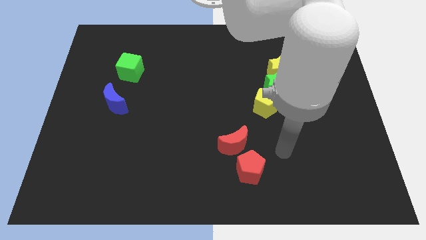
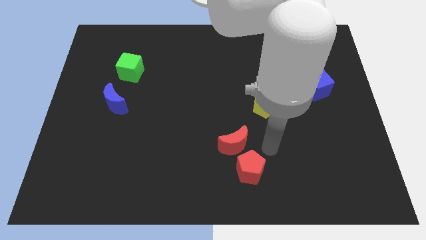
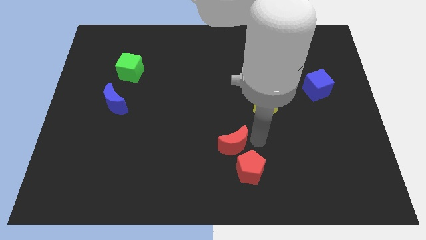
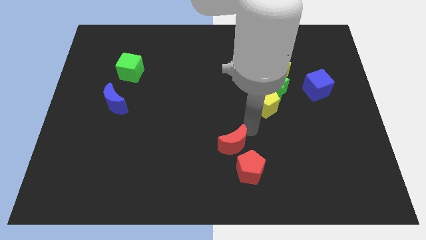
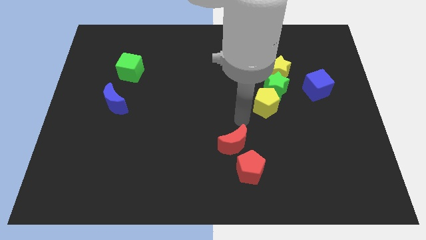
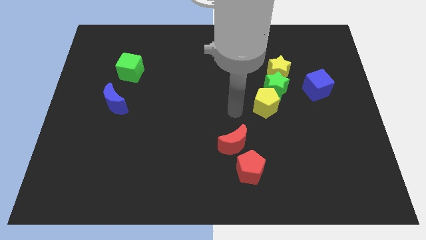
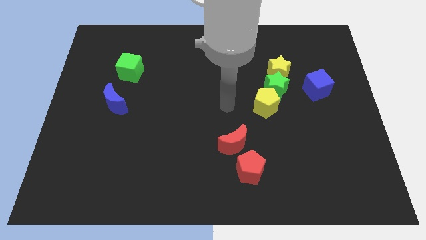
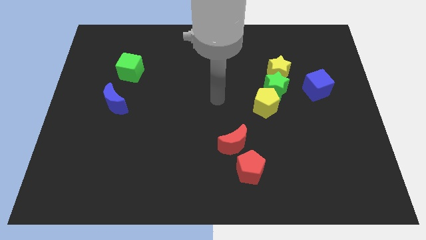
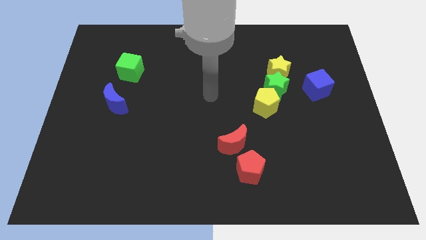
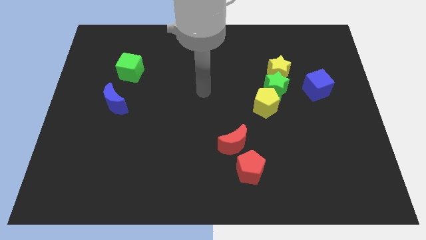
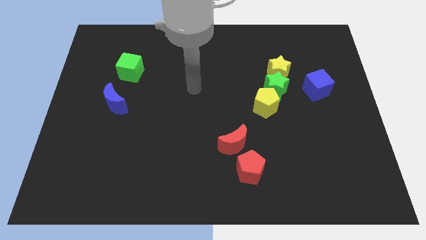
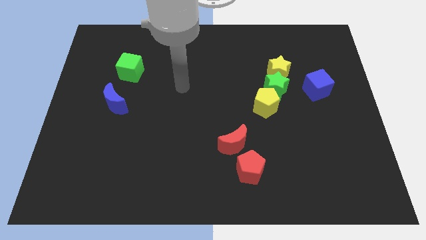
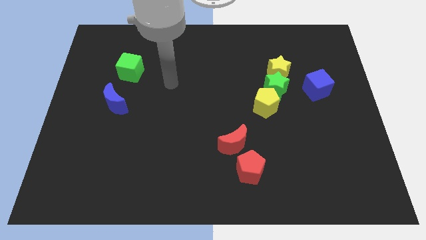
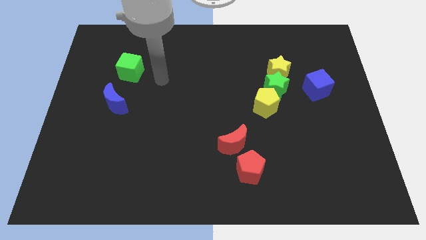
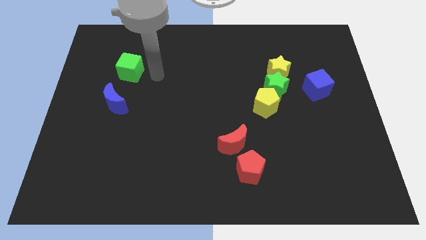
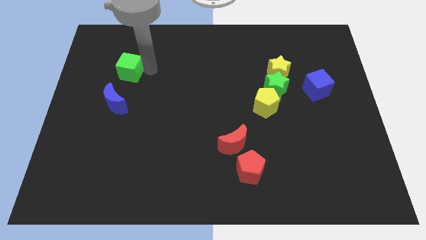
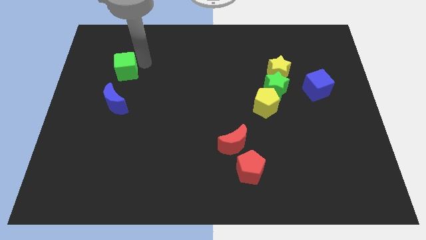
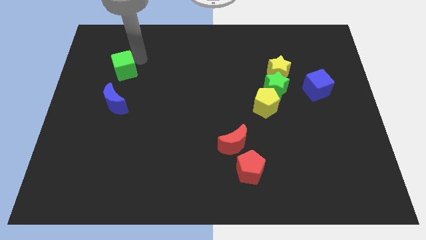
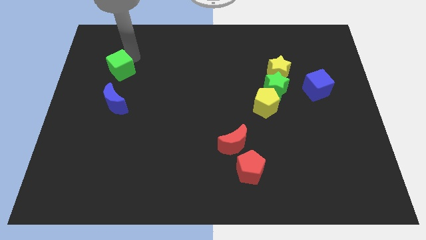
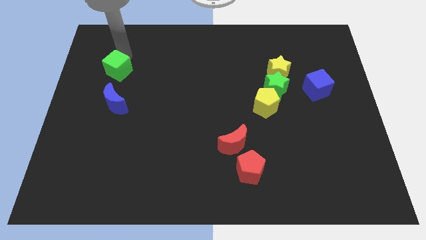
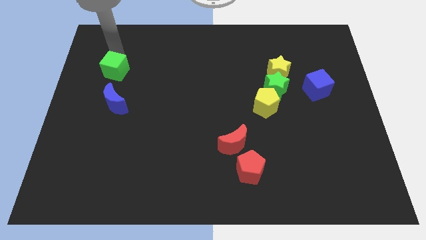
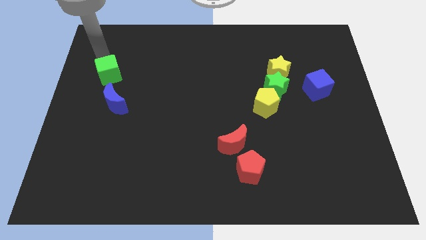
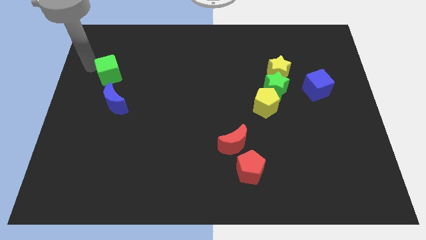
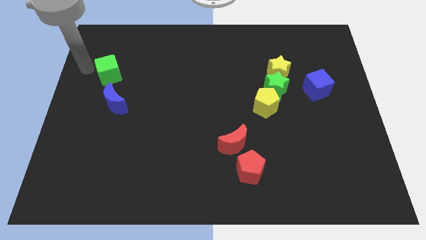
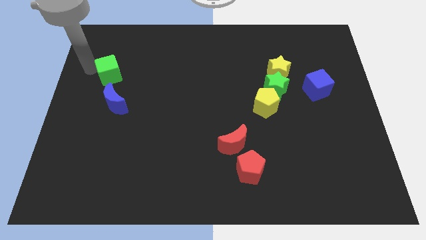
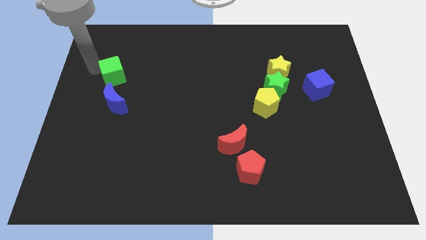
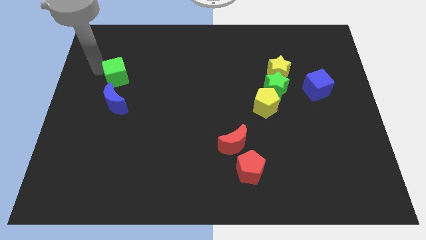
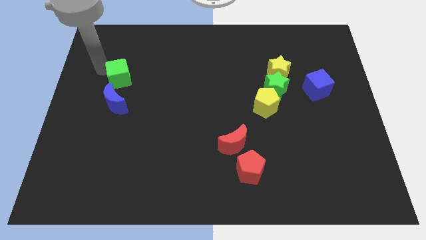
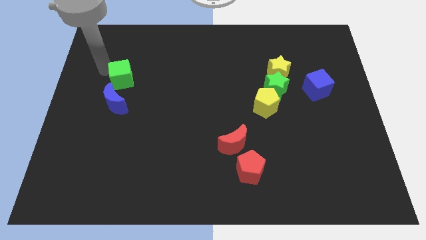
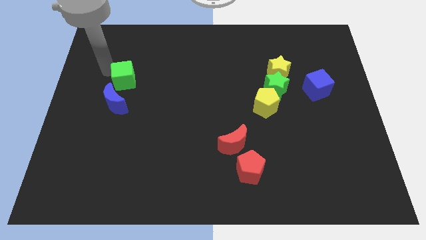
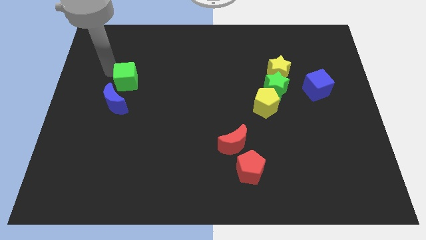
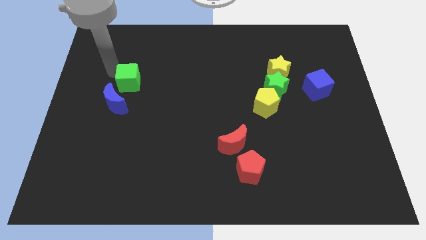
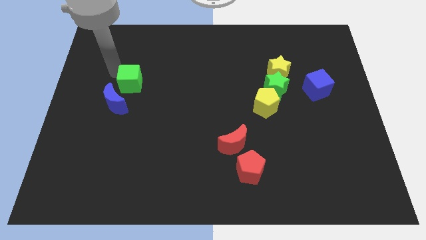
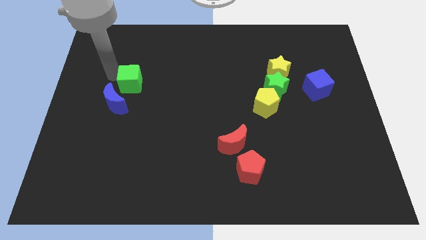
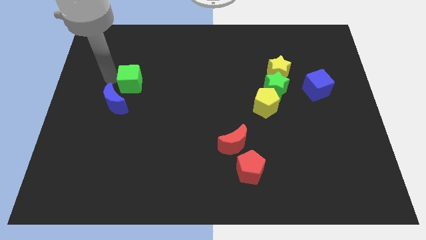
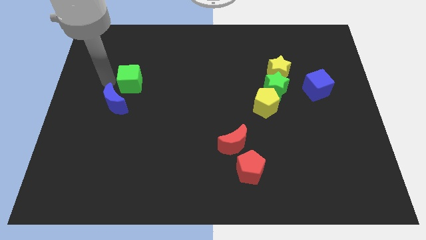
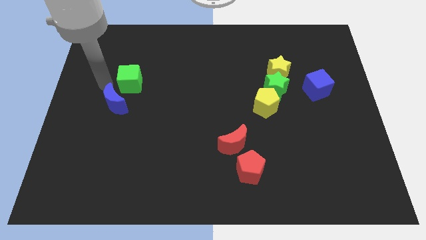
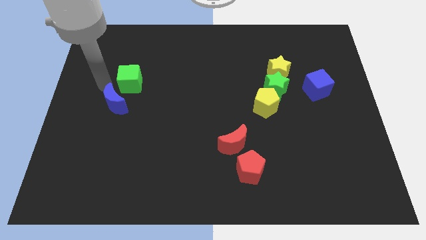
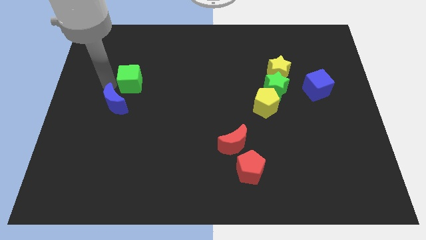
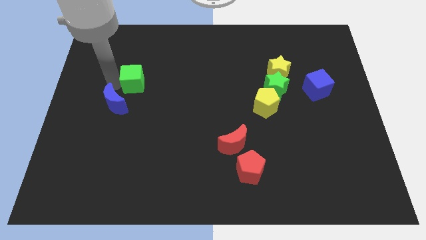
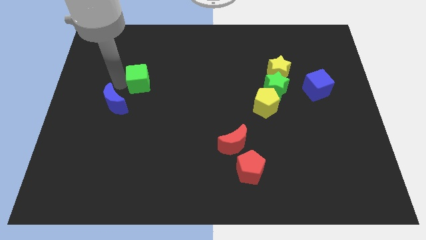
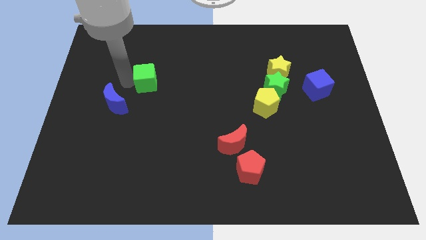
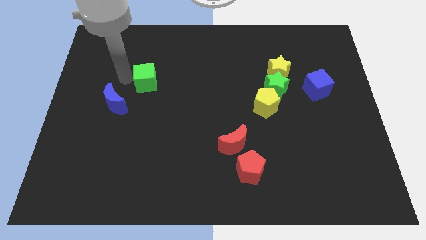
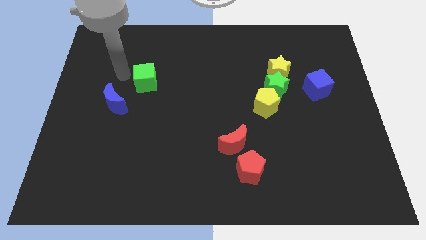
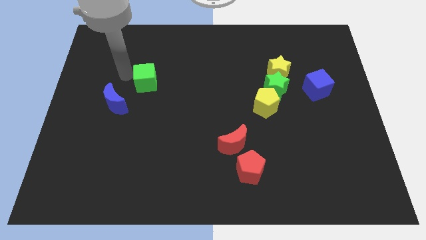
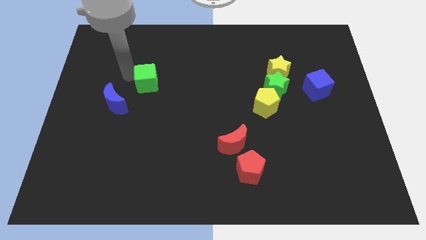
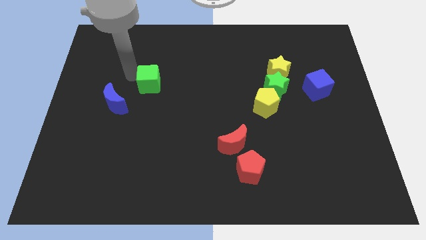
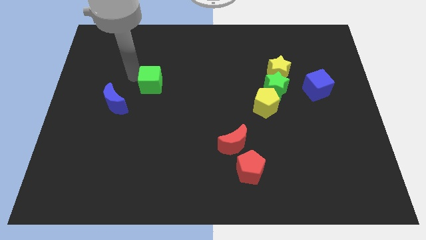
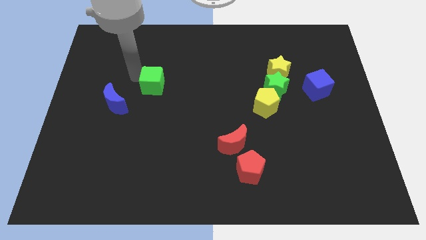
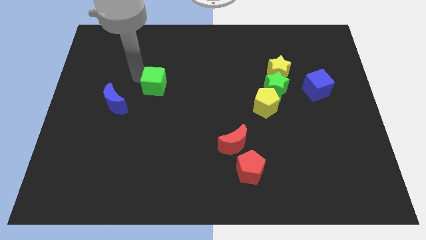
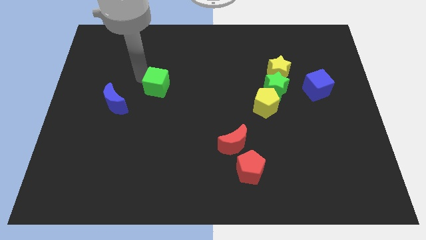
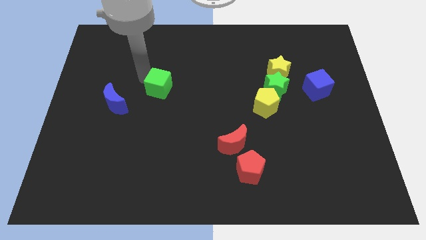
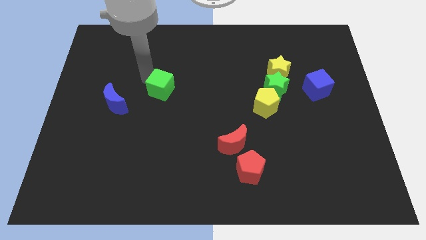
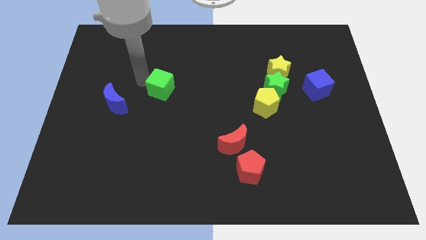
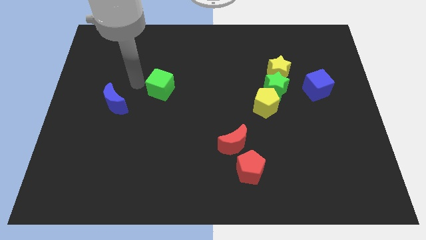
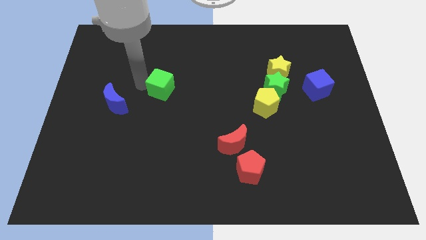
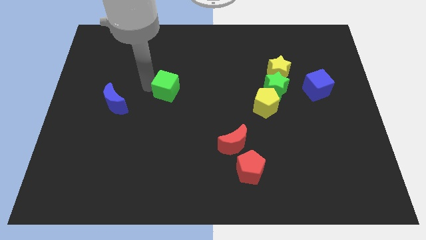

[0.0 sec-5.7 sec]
slide the green cube to the center

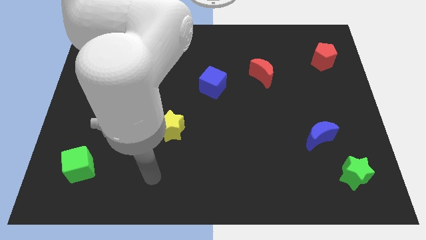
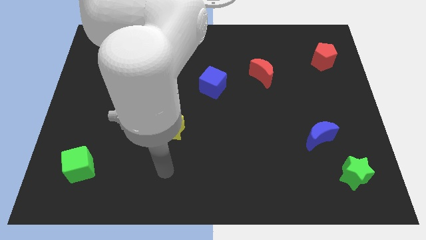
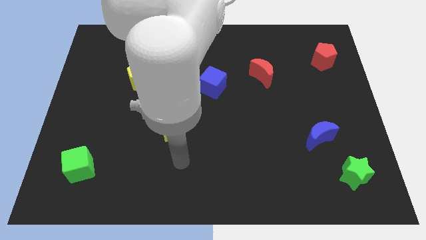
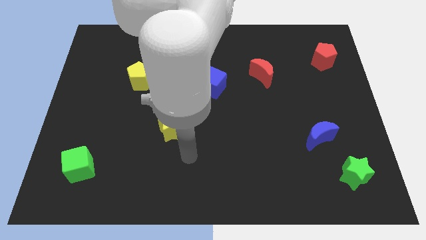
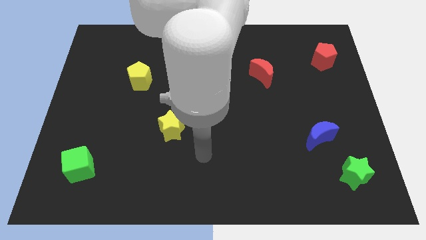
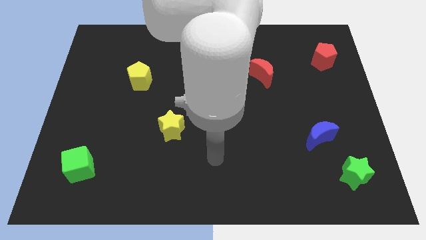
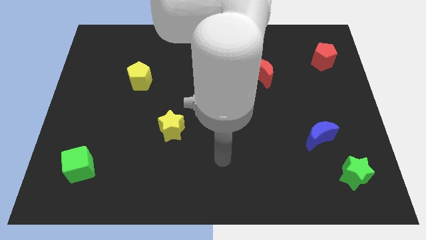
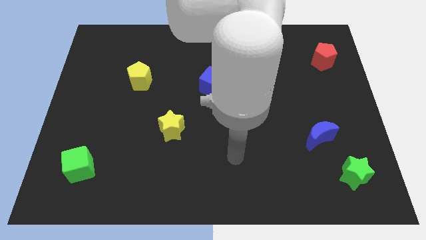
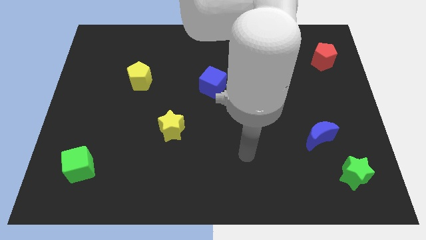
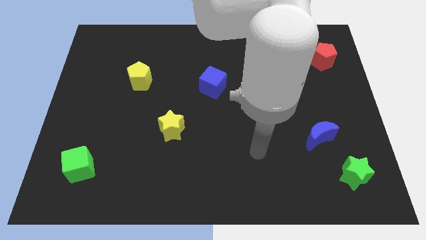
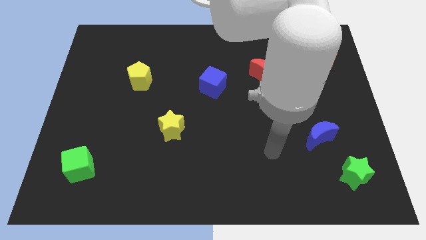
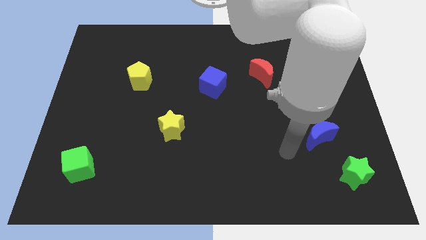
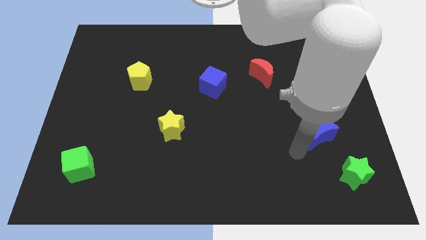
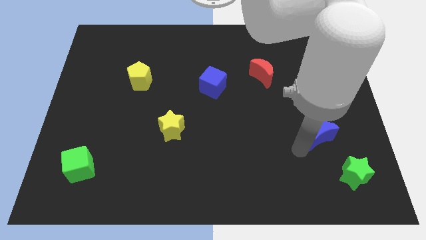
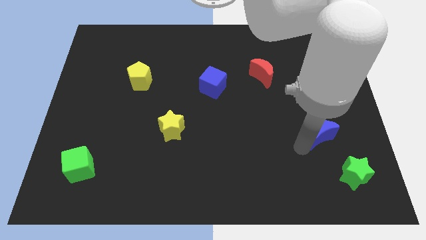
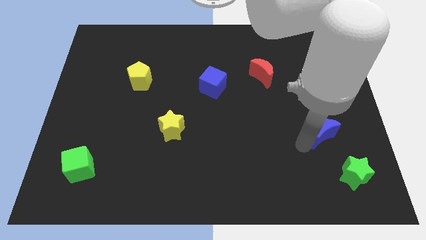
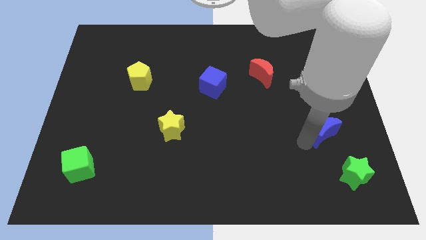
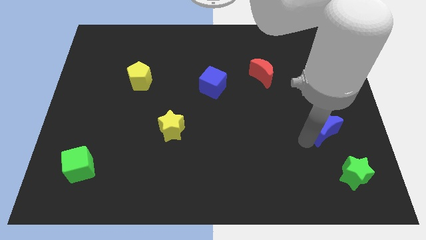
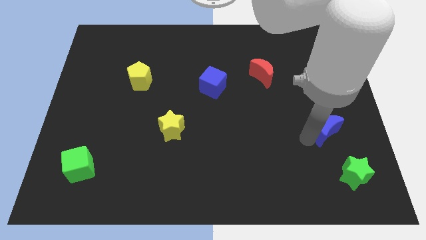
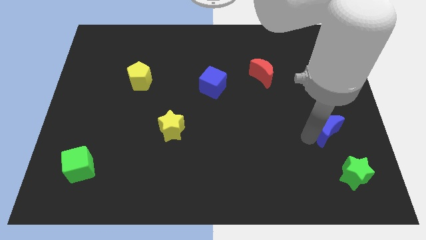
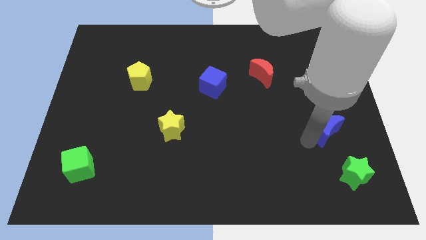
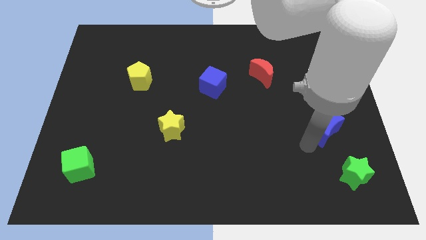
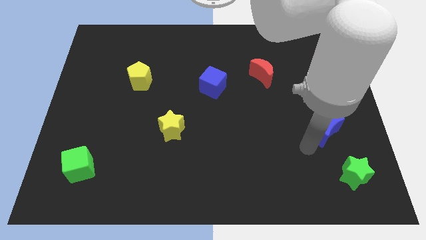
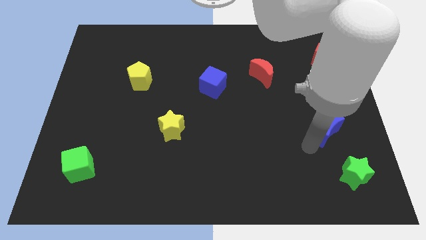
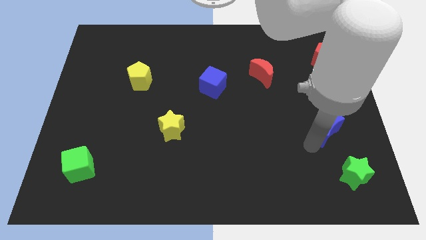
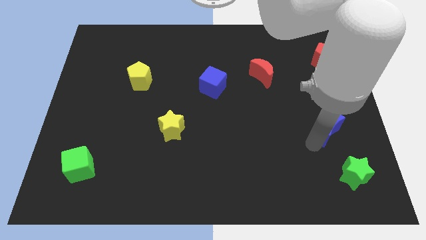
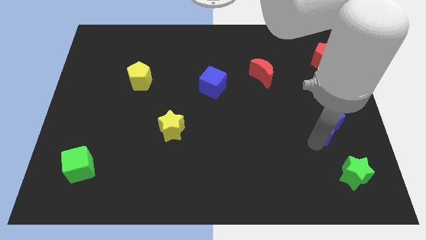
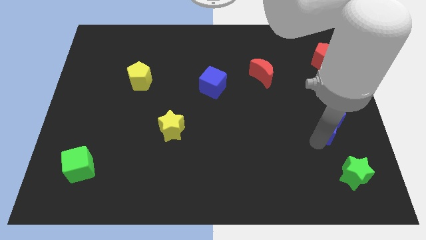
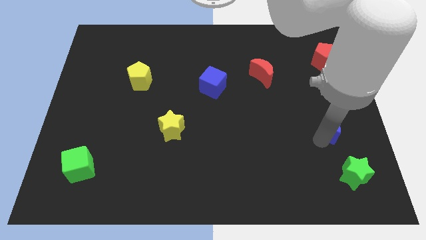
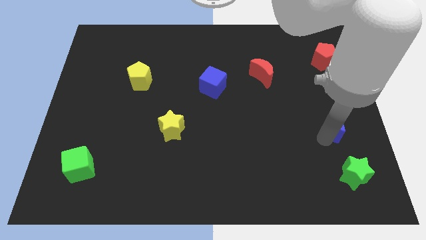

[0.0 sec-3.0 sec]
slide the blue moon to the right side of the board
